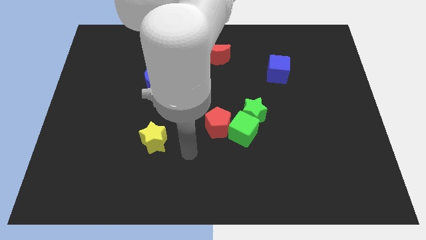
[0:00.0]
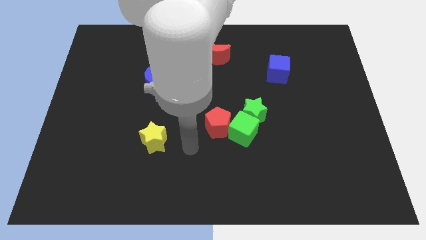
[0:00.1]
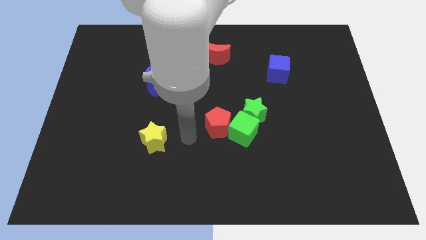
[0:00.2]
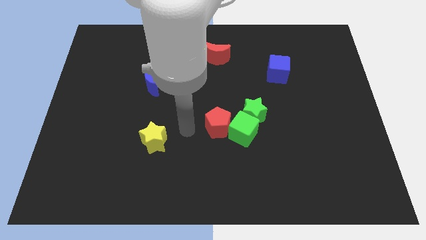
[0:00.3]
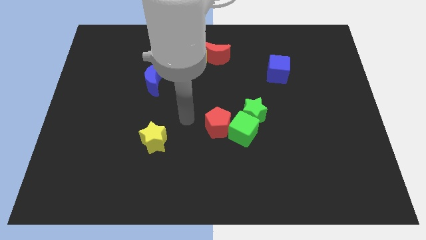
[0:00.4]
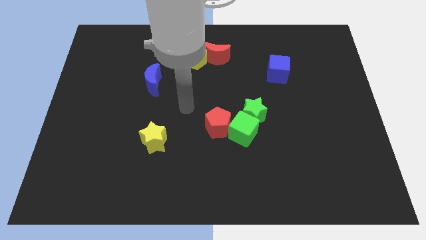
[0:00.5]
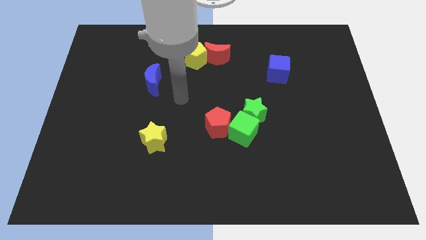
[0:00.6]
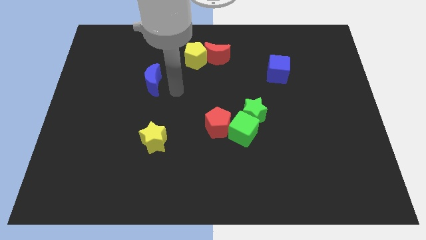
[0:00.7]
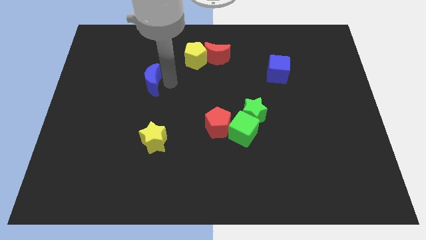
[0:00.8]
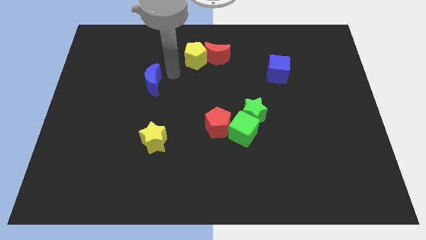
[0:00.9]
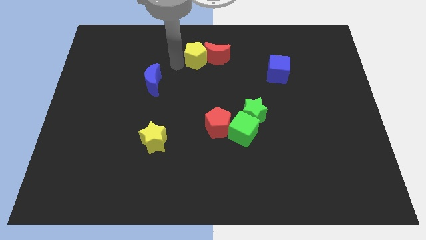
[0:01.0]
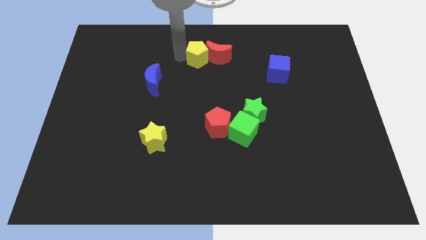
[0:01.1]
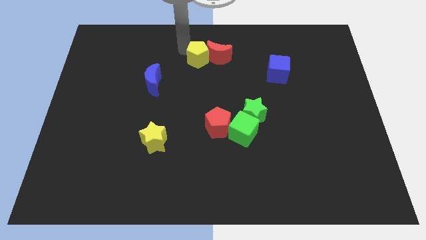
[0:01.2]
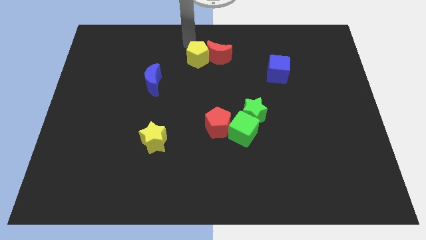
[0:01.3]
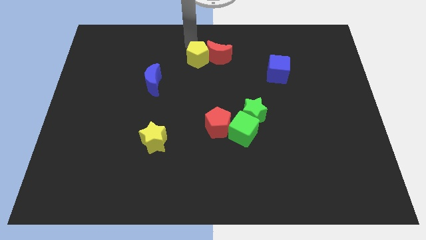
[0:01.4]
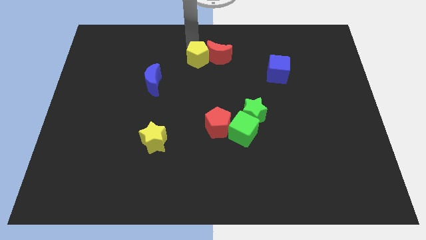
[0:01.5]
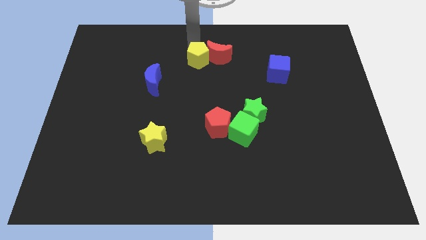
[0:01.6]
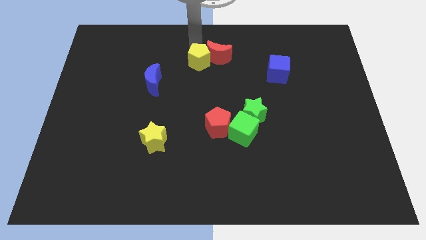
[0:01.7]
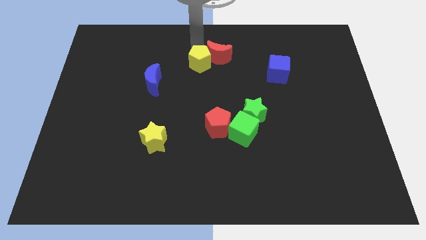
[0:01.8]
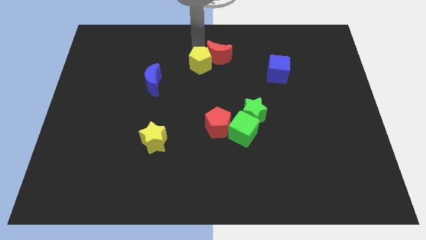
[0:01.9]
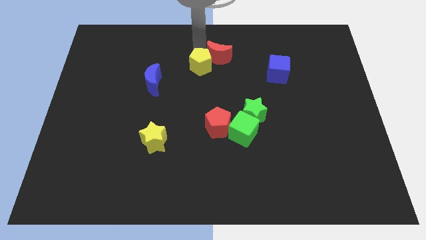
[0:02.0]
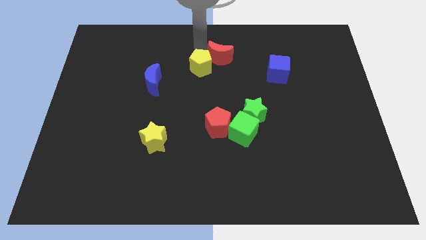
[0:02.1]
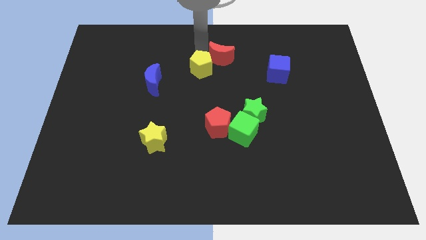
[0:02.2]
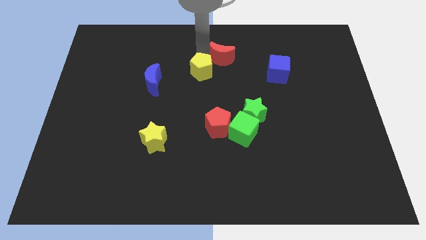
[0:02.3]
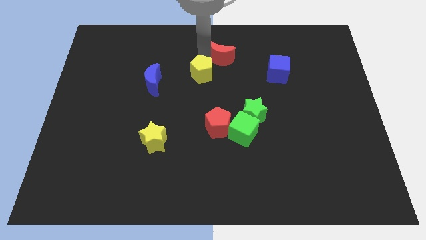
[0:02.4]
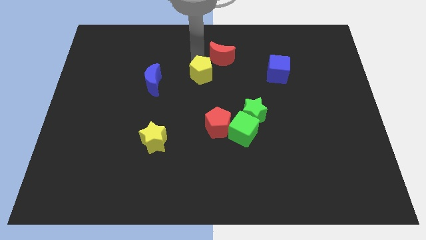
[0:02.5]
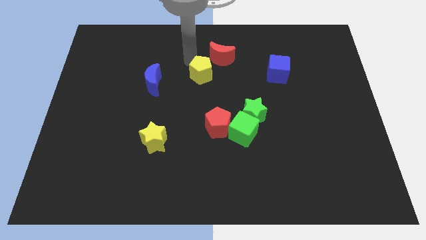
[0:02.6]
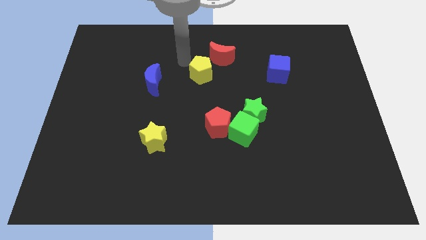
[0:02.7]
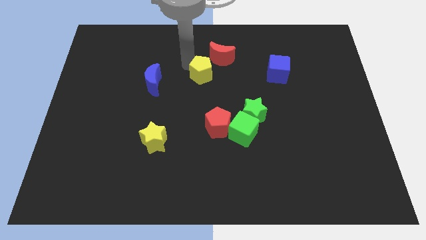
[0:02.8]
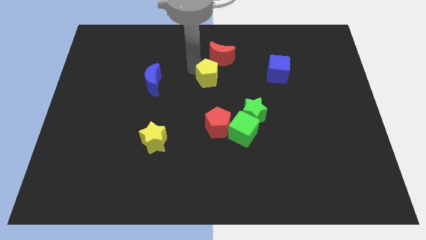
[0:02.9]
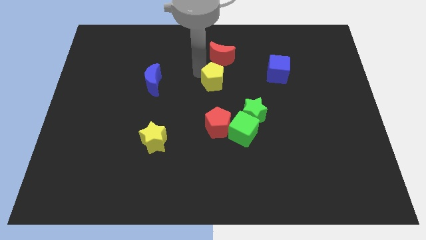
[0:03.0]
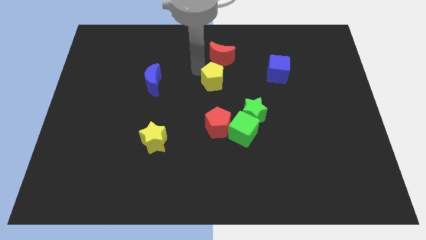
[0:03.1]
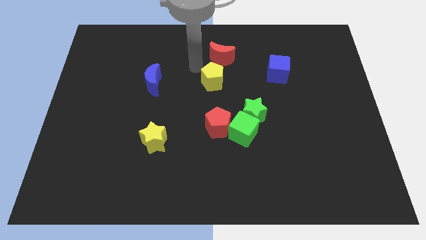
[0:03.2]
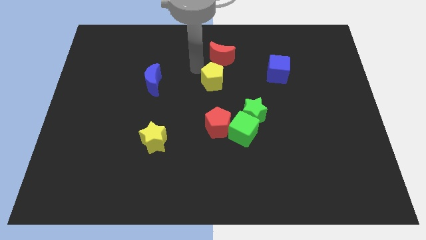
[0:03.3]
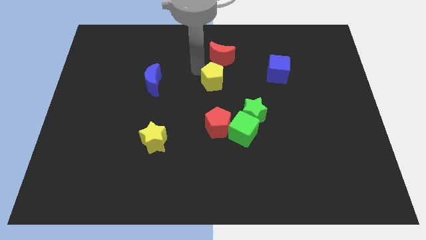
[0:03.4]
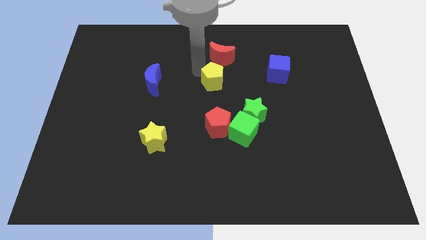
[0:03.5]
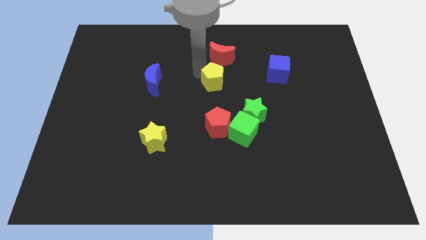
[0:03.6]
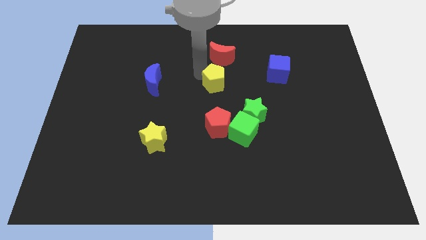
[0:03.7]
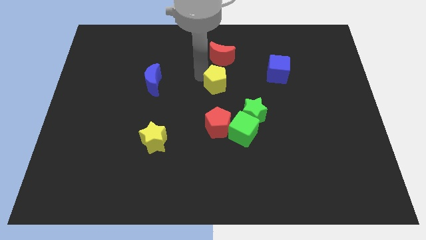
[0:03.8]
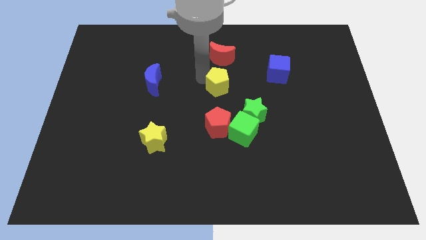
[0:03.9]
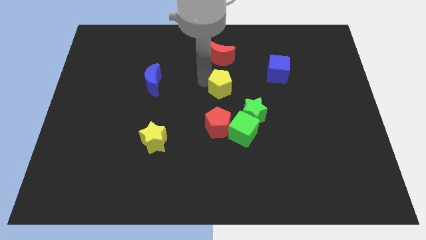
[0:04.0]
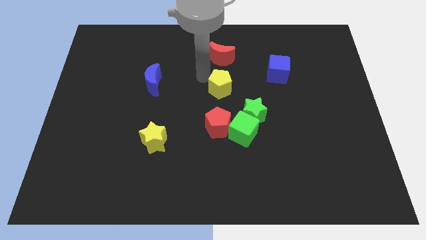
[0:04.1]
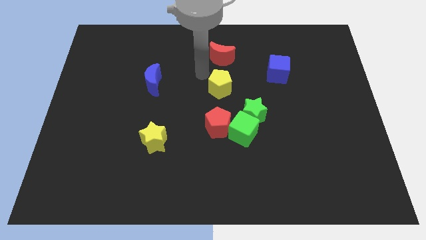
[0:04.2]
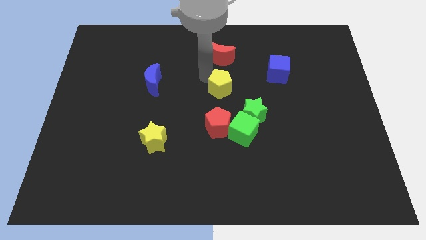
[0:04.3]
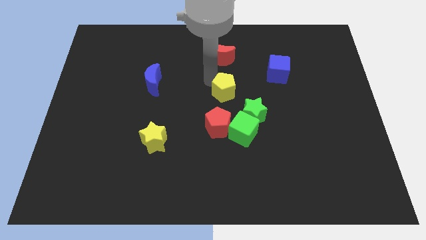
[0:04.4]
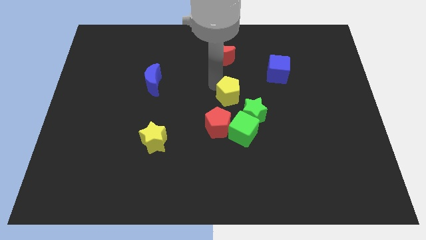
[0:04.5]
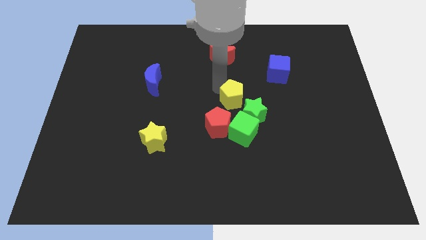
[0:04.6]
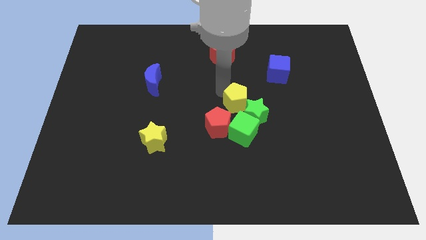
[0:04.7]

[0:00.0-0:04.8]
slide the yellow pentagon towards the green star

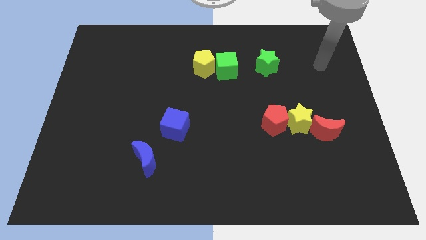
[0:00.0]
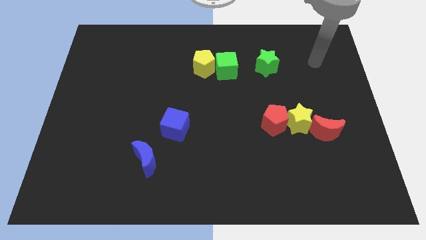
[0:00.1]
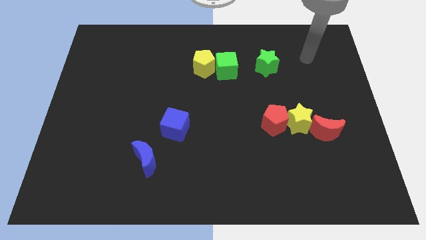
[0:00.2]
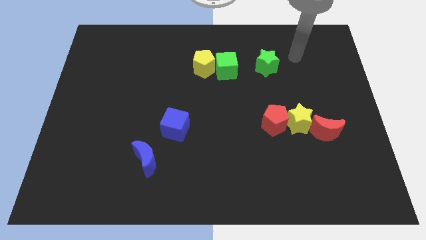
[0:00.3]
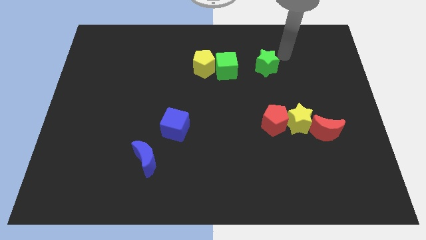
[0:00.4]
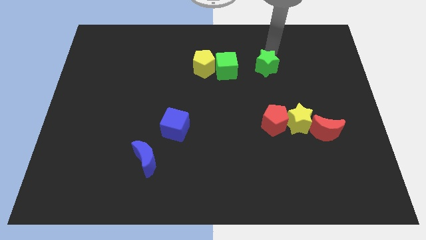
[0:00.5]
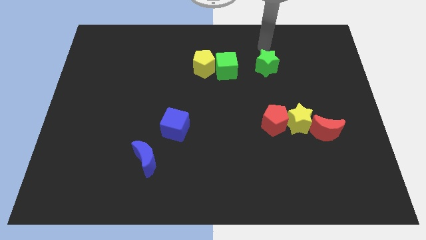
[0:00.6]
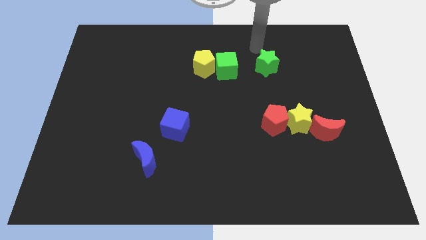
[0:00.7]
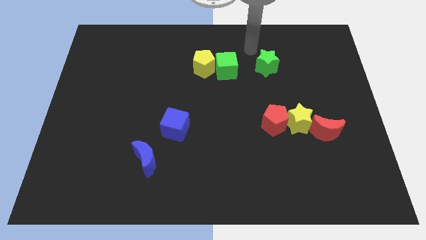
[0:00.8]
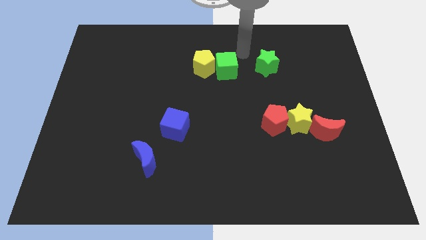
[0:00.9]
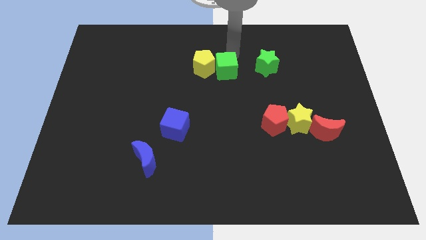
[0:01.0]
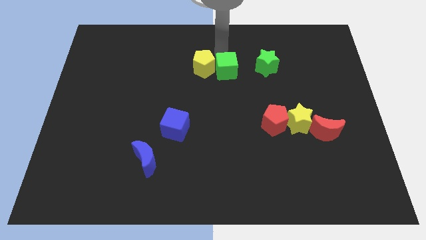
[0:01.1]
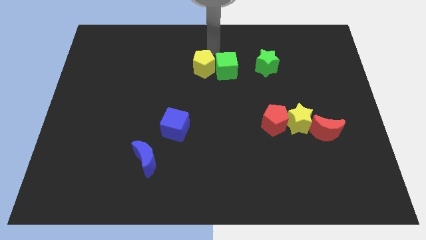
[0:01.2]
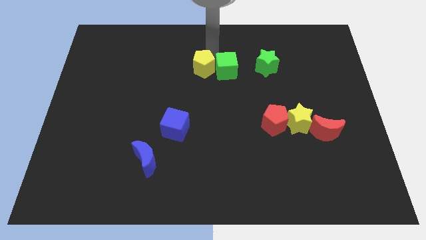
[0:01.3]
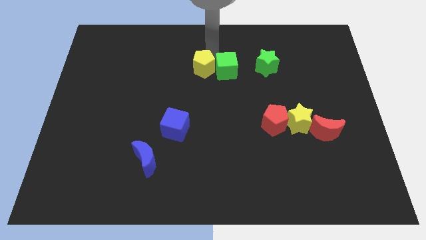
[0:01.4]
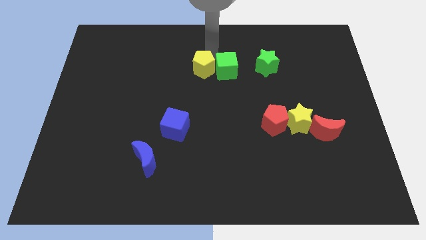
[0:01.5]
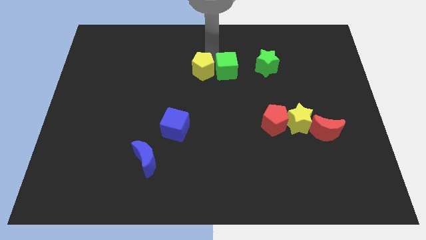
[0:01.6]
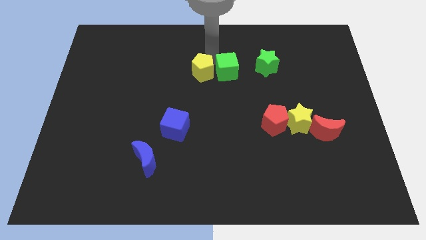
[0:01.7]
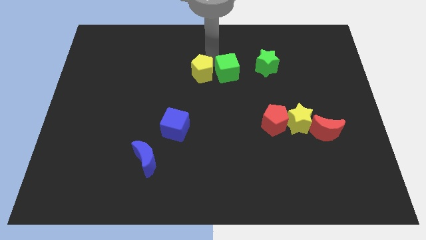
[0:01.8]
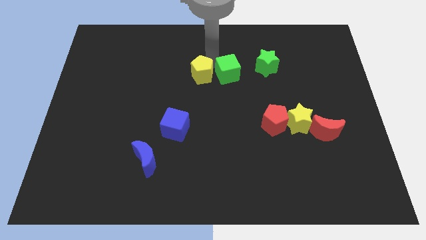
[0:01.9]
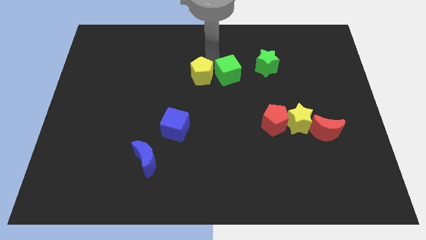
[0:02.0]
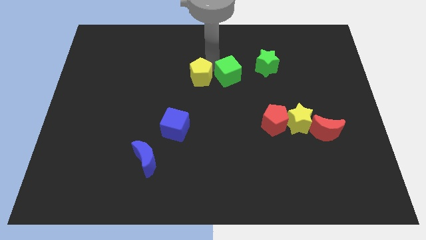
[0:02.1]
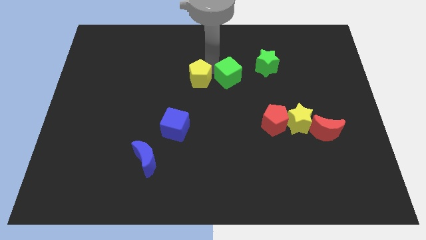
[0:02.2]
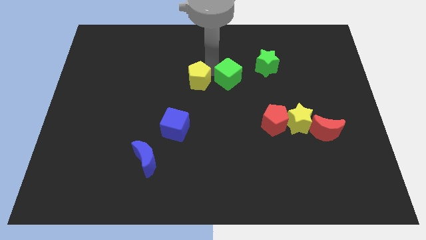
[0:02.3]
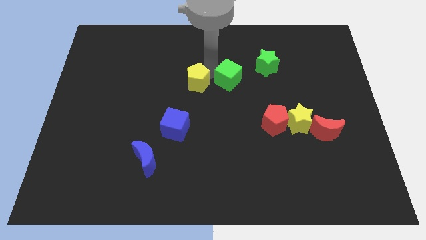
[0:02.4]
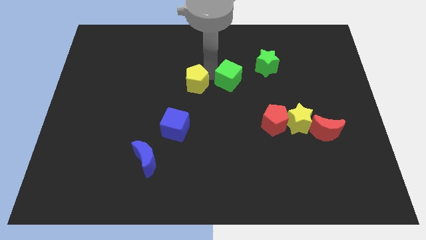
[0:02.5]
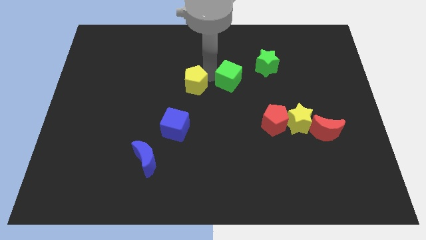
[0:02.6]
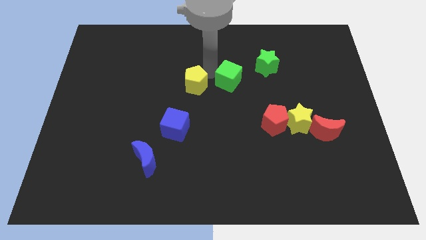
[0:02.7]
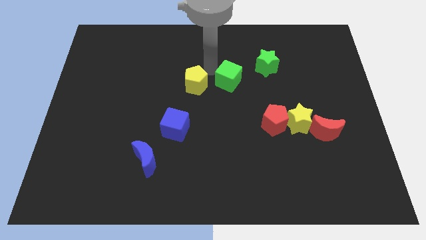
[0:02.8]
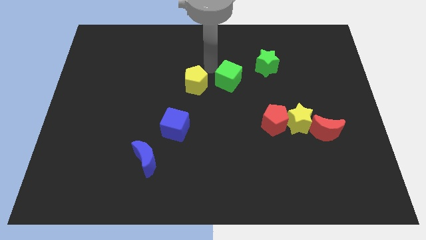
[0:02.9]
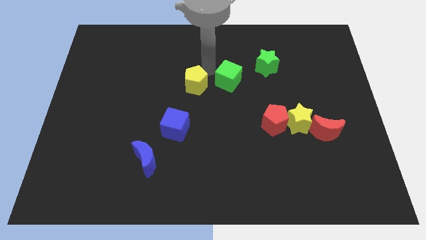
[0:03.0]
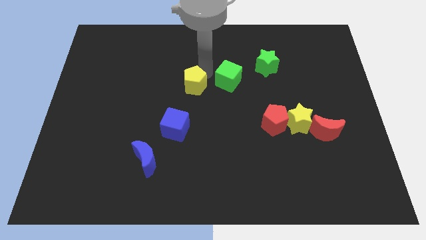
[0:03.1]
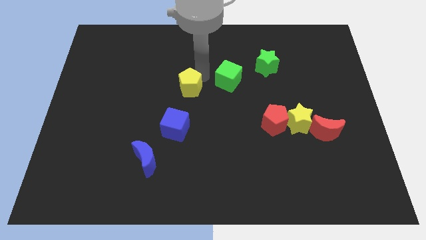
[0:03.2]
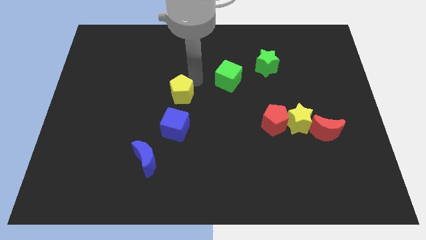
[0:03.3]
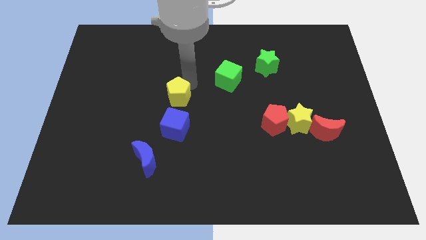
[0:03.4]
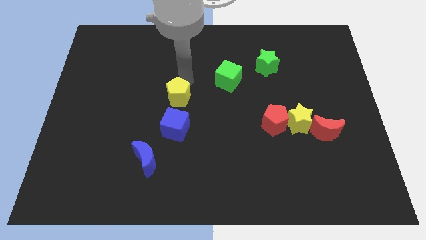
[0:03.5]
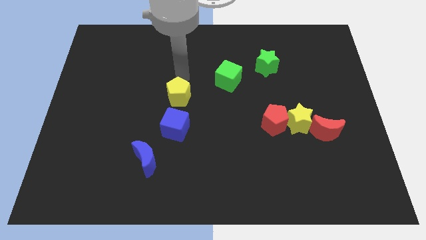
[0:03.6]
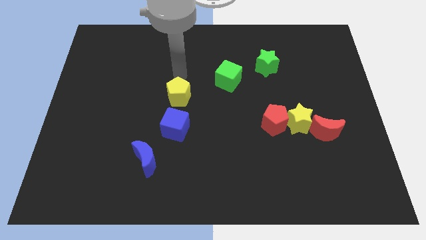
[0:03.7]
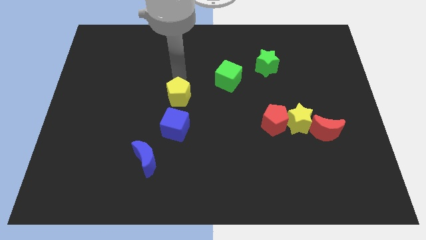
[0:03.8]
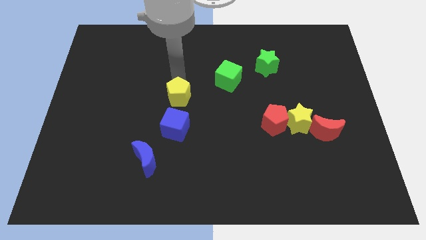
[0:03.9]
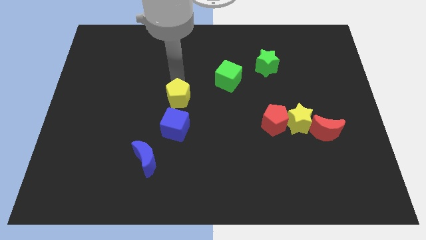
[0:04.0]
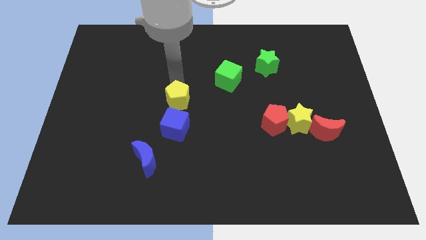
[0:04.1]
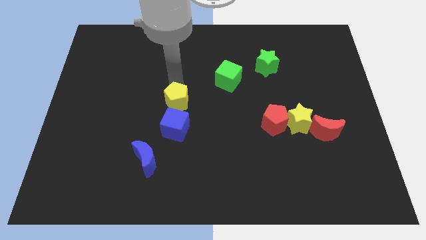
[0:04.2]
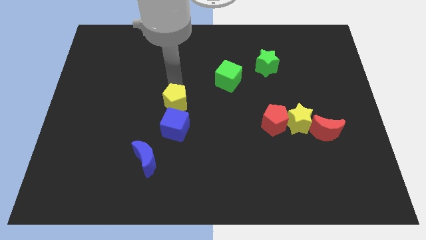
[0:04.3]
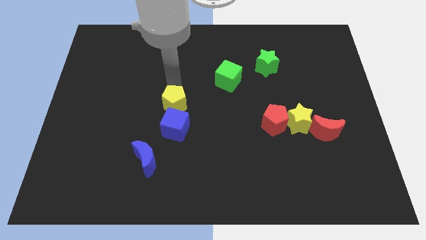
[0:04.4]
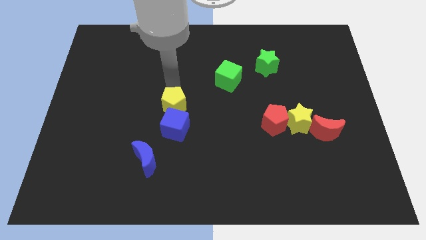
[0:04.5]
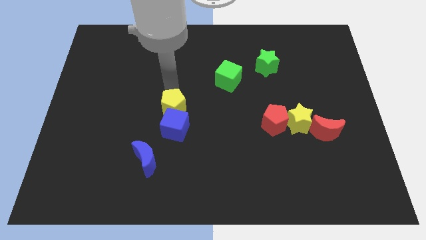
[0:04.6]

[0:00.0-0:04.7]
slide the yellow pentagon close to the blue cube
